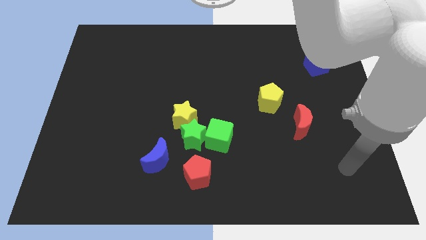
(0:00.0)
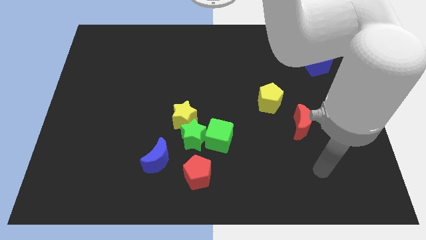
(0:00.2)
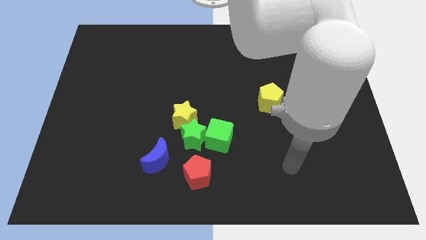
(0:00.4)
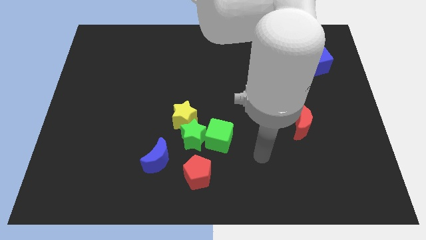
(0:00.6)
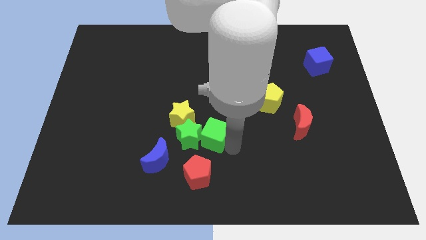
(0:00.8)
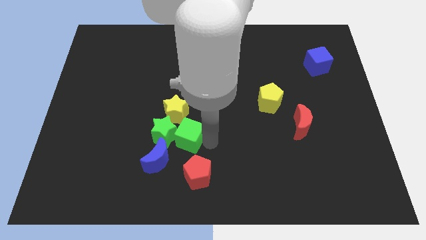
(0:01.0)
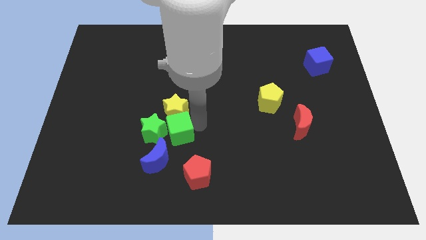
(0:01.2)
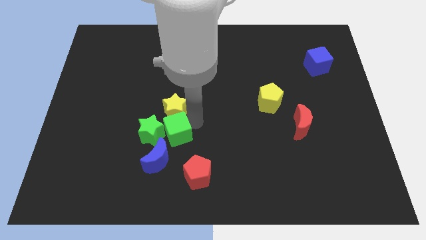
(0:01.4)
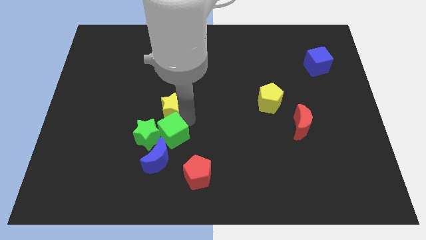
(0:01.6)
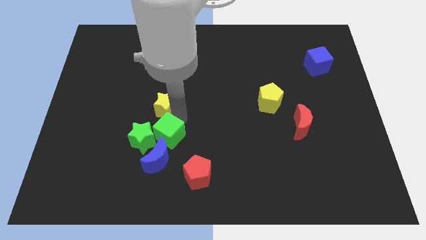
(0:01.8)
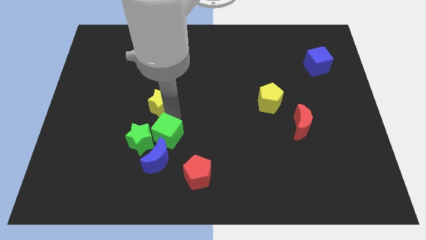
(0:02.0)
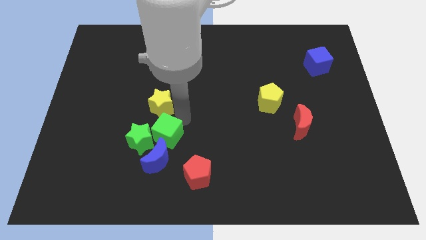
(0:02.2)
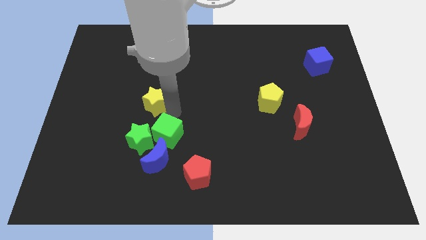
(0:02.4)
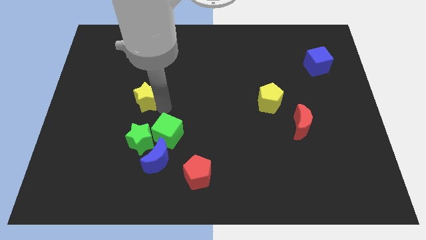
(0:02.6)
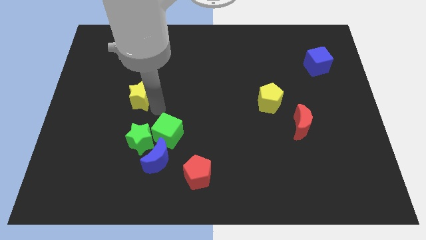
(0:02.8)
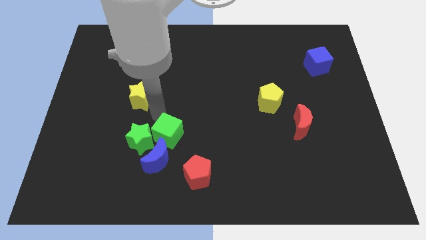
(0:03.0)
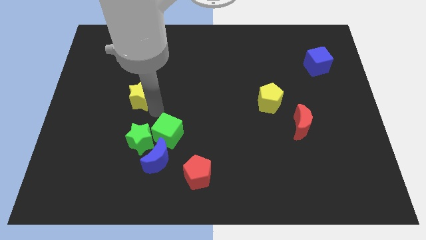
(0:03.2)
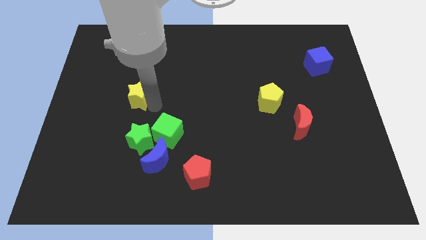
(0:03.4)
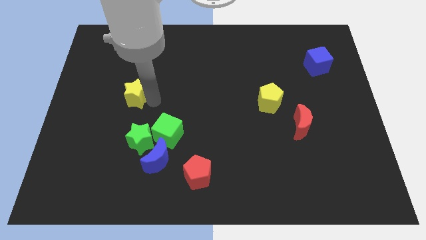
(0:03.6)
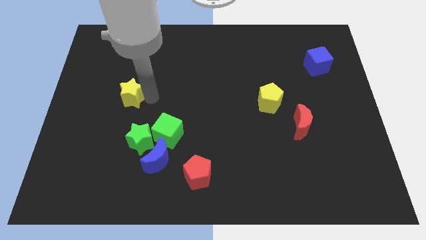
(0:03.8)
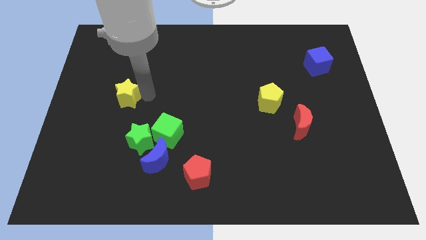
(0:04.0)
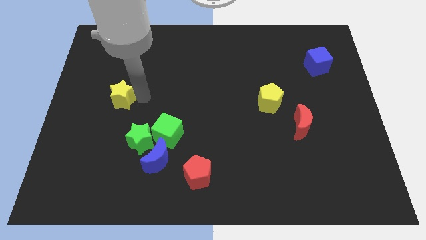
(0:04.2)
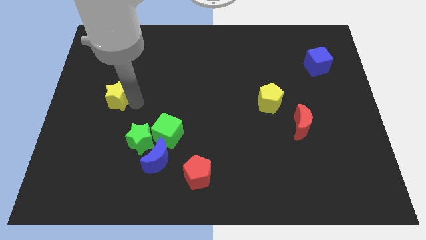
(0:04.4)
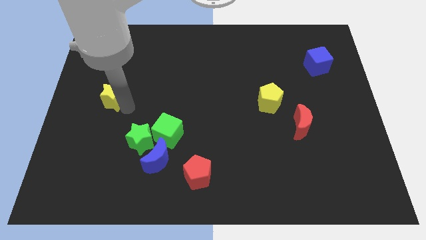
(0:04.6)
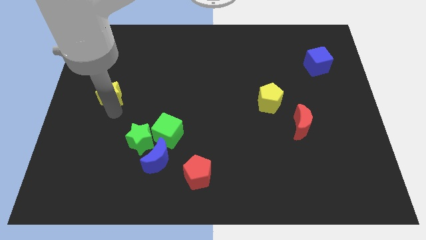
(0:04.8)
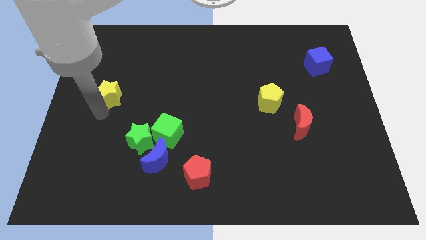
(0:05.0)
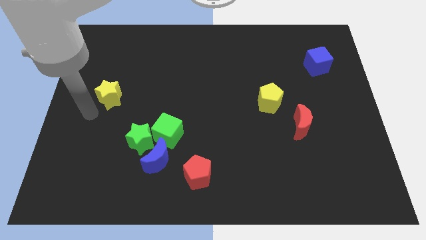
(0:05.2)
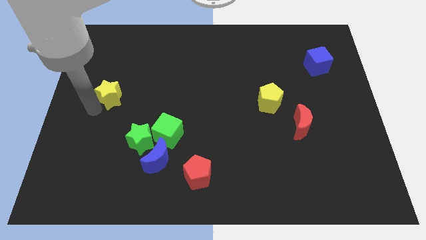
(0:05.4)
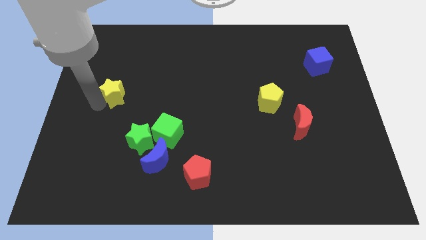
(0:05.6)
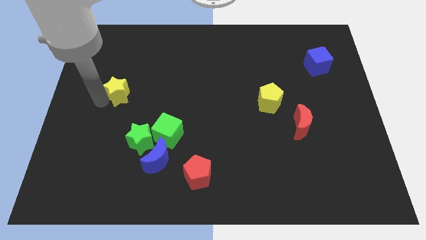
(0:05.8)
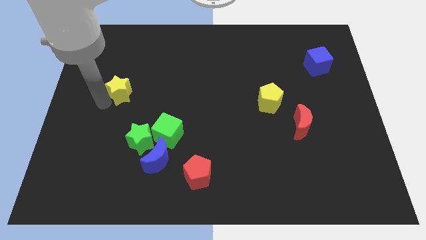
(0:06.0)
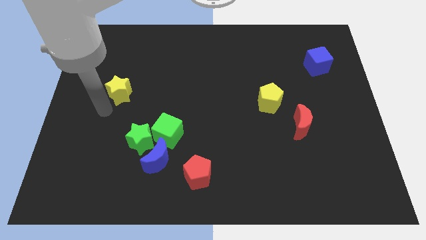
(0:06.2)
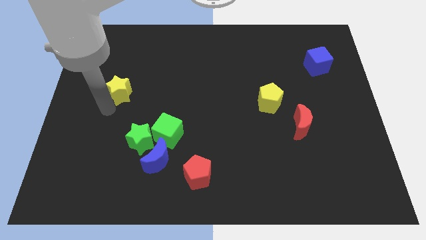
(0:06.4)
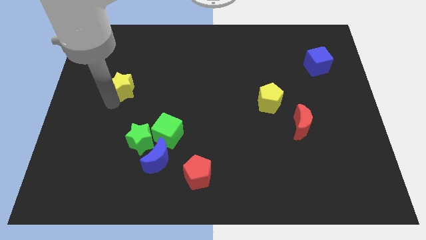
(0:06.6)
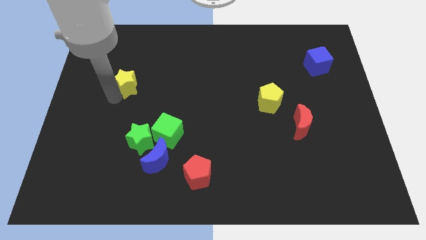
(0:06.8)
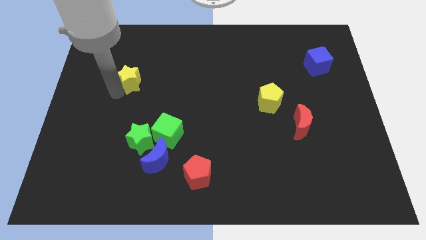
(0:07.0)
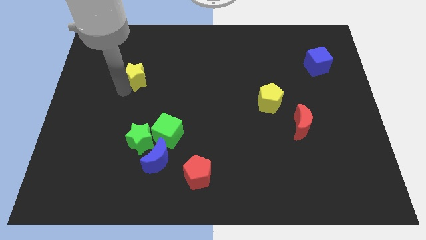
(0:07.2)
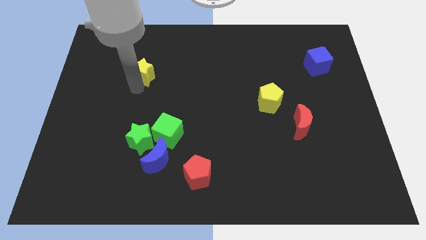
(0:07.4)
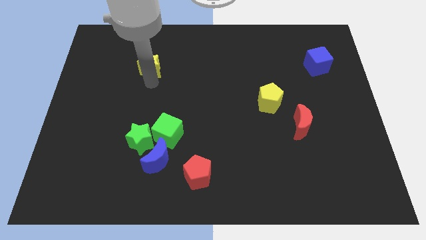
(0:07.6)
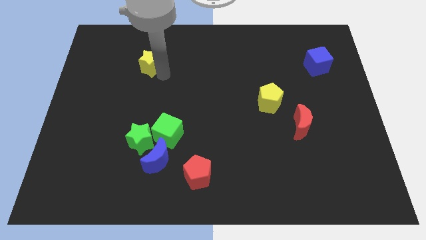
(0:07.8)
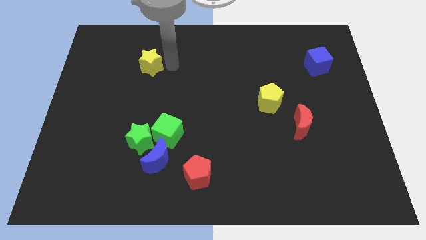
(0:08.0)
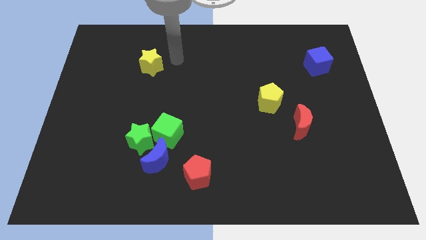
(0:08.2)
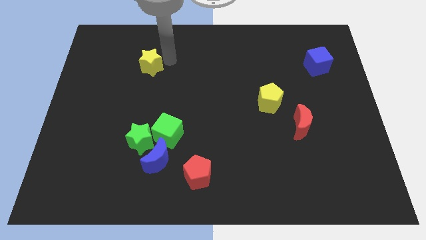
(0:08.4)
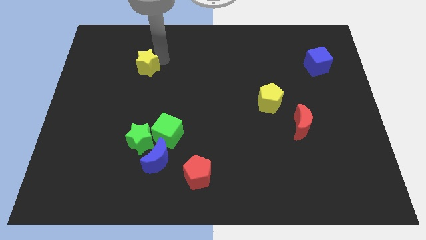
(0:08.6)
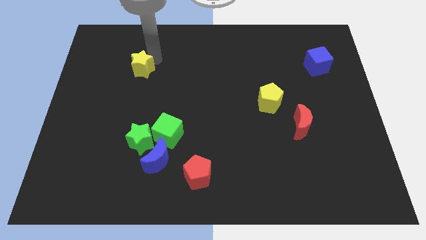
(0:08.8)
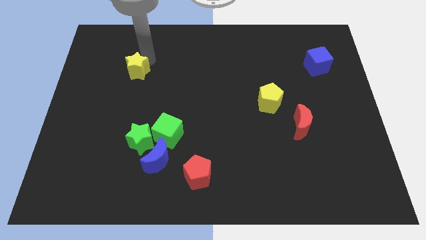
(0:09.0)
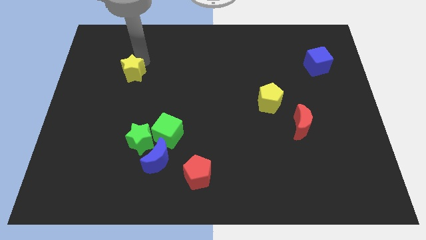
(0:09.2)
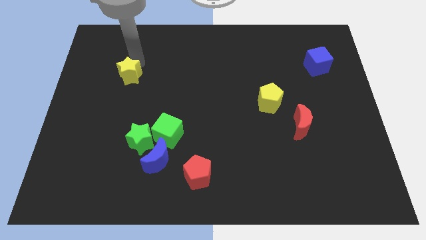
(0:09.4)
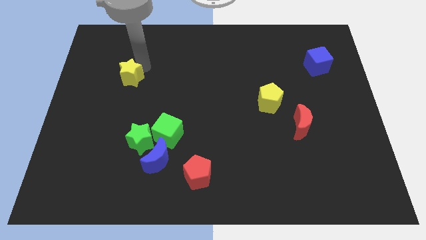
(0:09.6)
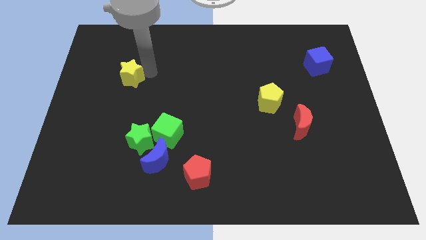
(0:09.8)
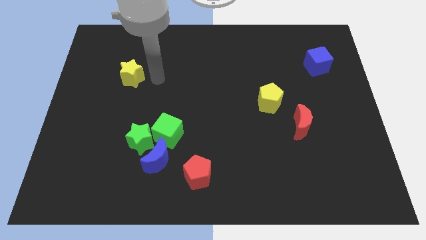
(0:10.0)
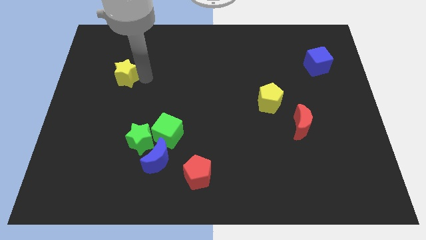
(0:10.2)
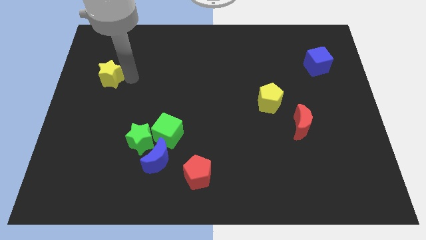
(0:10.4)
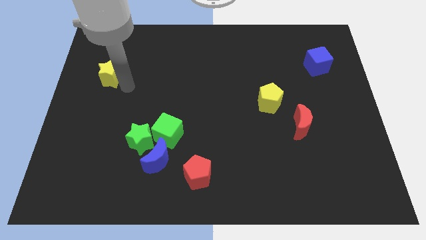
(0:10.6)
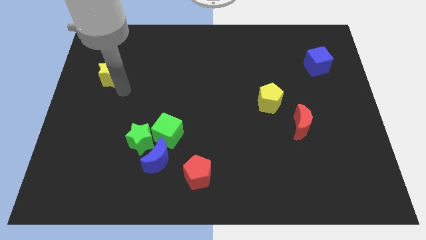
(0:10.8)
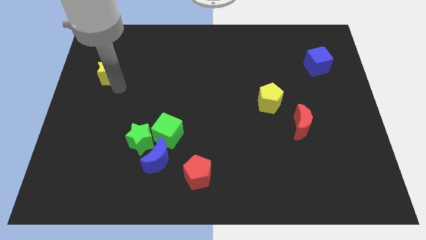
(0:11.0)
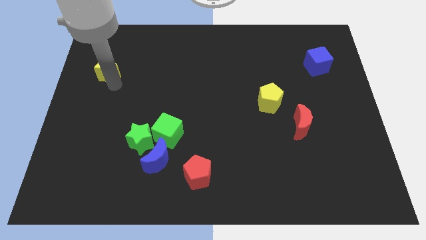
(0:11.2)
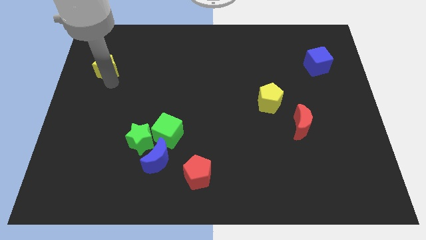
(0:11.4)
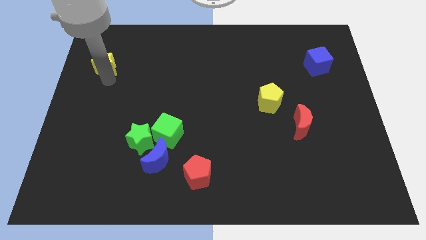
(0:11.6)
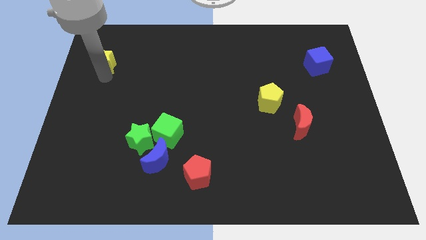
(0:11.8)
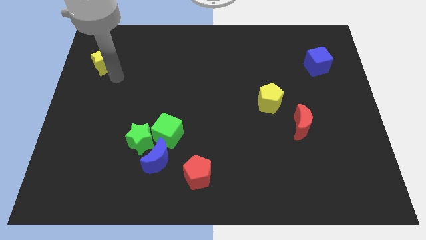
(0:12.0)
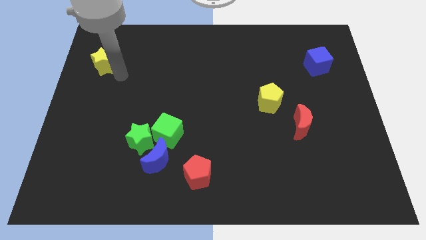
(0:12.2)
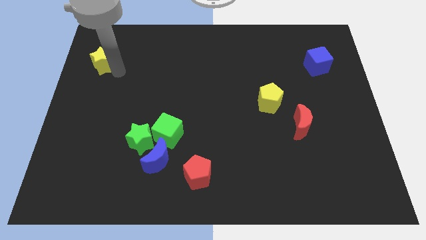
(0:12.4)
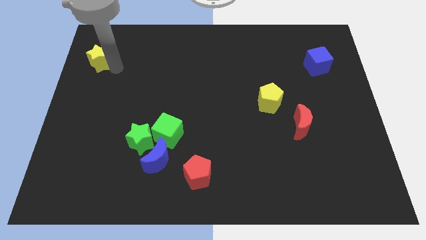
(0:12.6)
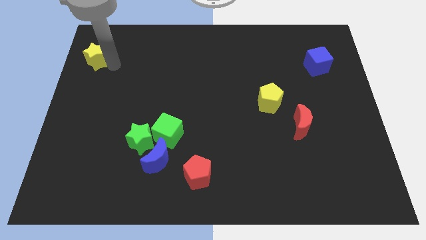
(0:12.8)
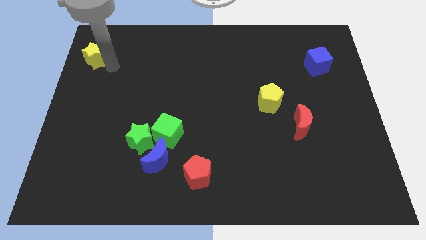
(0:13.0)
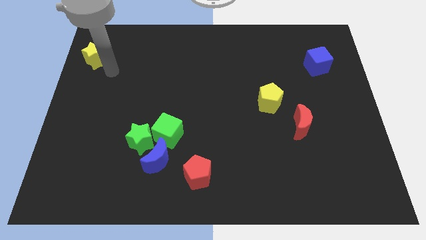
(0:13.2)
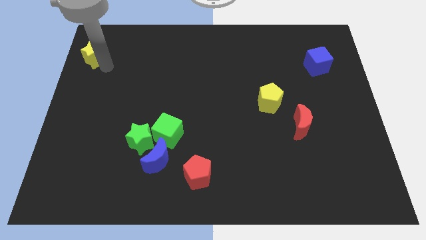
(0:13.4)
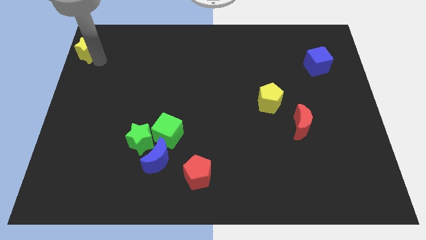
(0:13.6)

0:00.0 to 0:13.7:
slide the yellow star to the upper left corner
